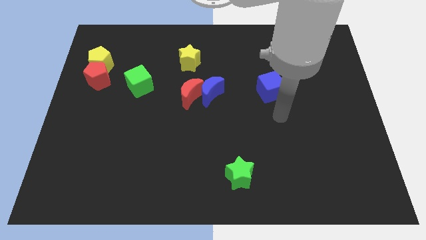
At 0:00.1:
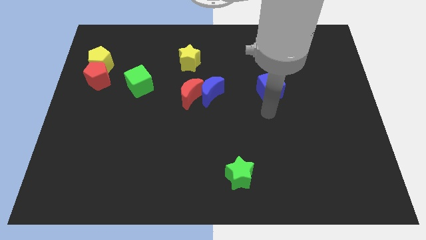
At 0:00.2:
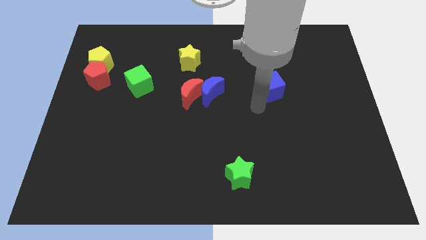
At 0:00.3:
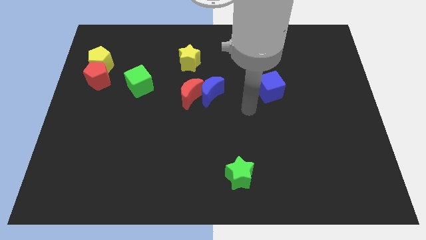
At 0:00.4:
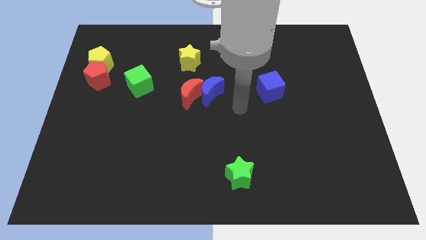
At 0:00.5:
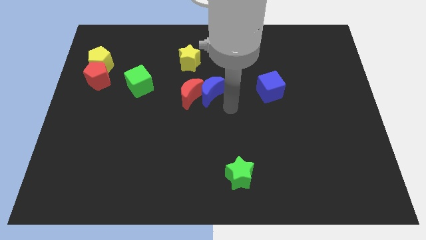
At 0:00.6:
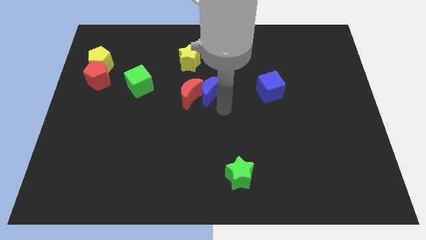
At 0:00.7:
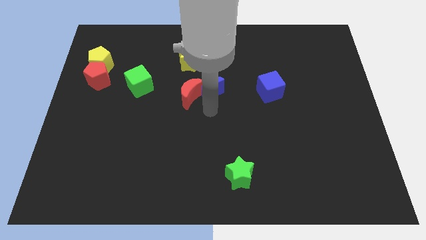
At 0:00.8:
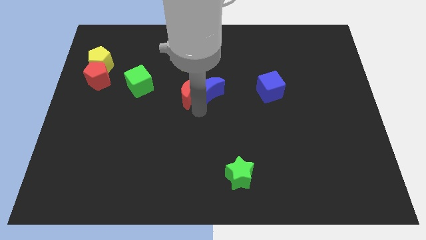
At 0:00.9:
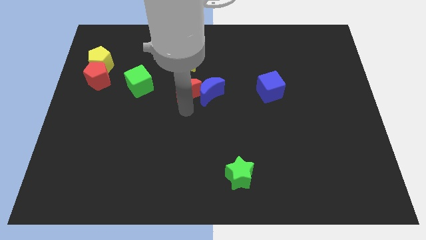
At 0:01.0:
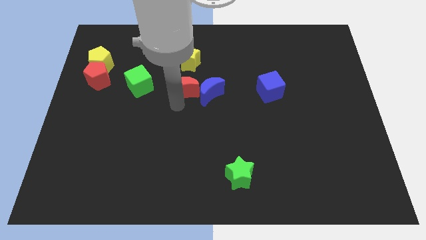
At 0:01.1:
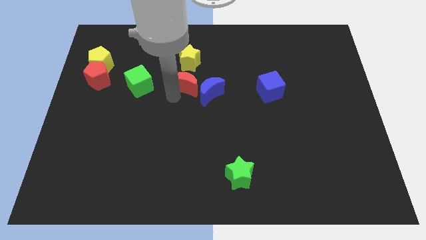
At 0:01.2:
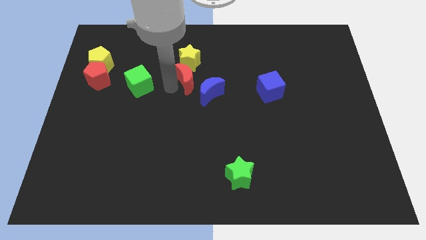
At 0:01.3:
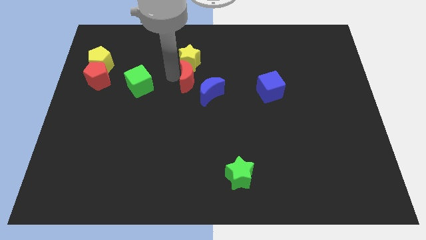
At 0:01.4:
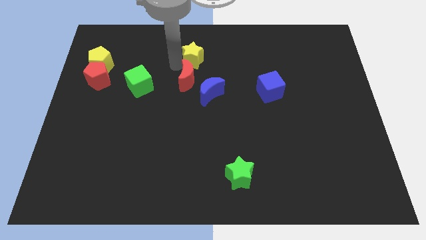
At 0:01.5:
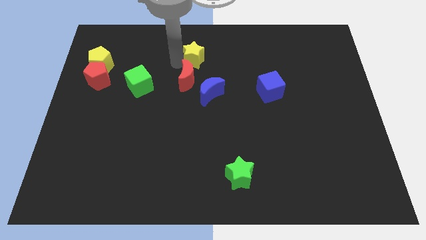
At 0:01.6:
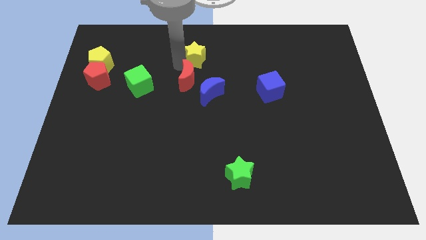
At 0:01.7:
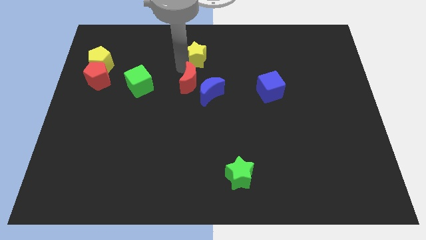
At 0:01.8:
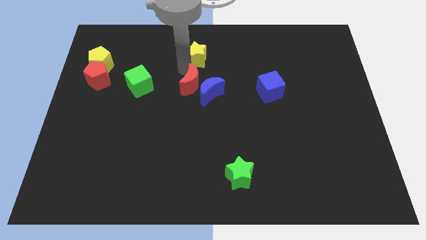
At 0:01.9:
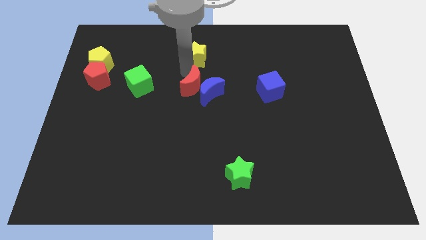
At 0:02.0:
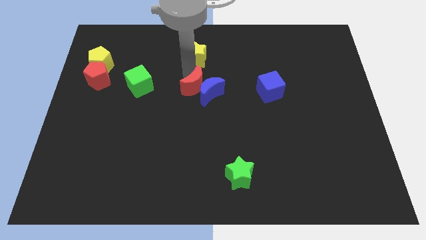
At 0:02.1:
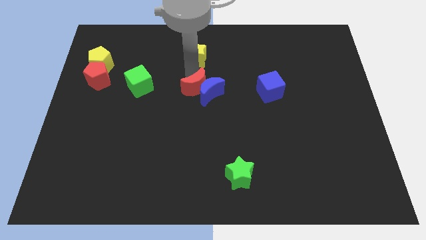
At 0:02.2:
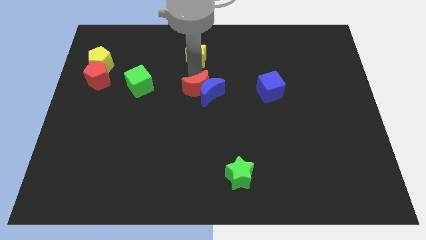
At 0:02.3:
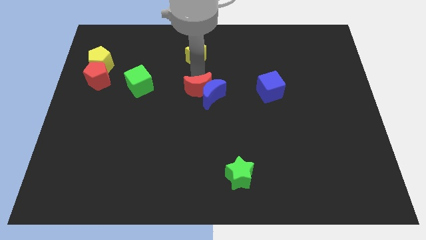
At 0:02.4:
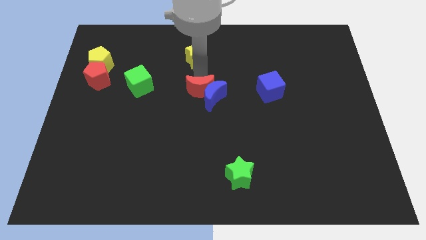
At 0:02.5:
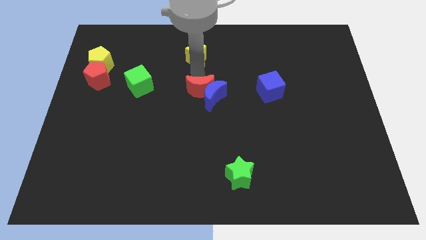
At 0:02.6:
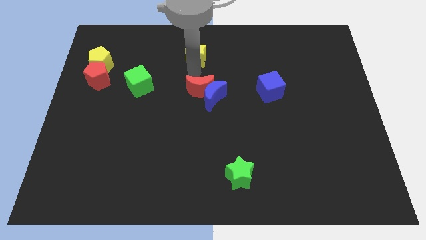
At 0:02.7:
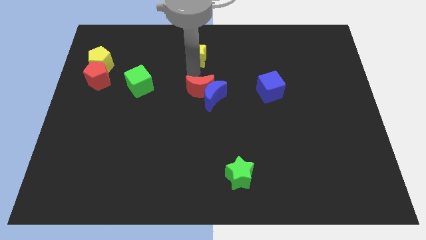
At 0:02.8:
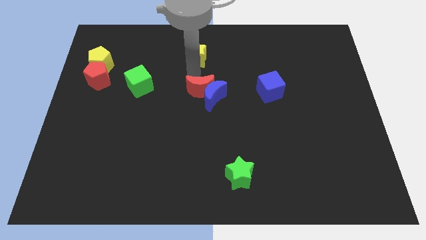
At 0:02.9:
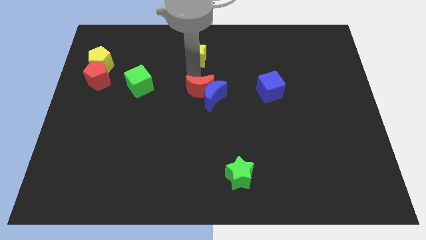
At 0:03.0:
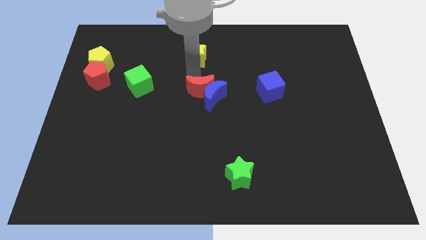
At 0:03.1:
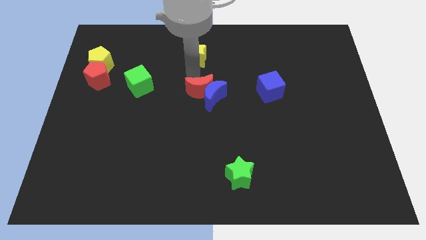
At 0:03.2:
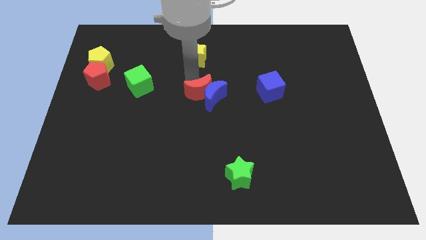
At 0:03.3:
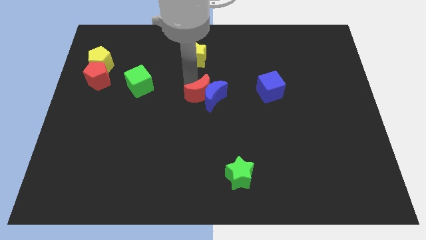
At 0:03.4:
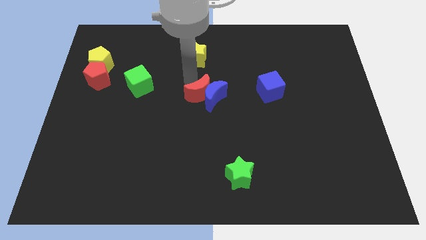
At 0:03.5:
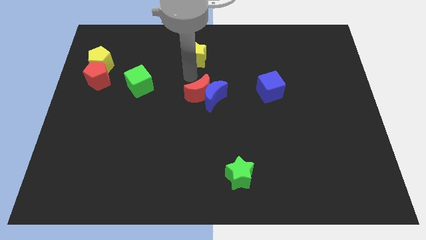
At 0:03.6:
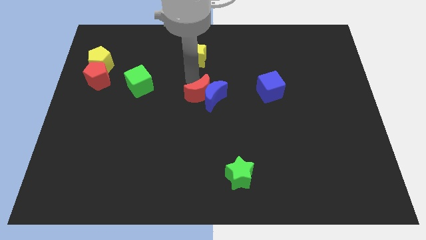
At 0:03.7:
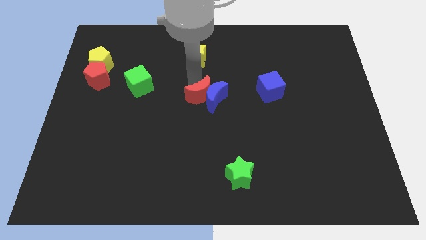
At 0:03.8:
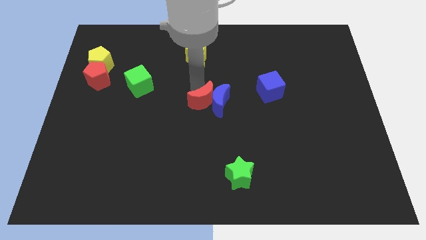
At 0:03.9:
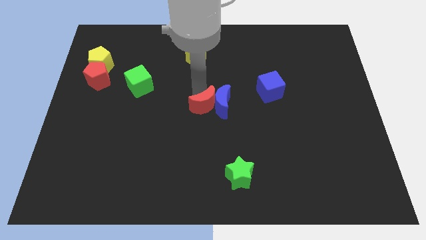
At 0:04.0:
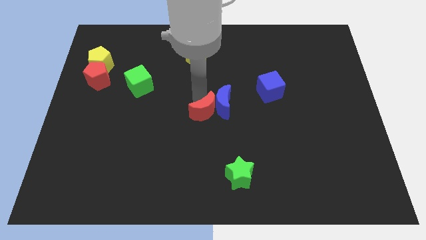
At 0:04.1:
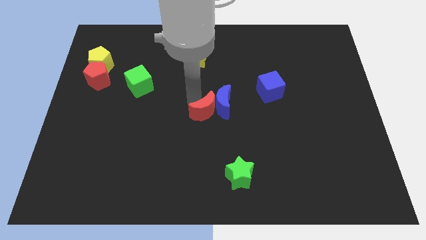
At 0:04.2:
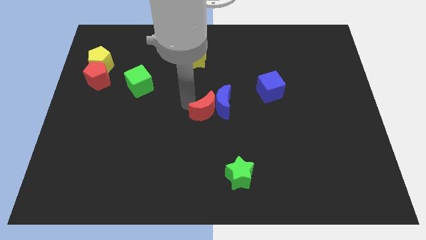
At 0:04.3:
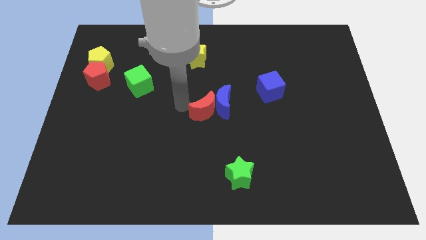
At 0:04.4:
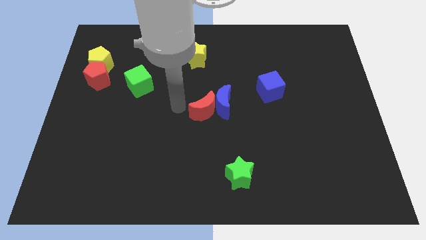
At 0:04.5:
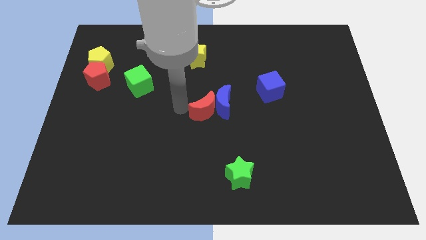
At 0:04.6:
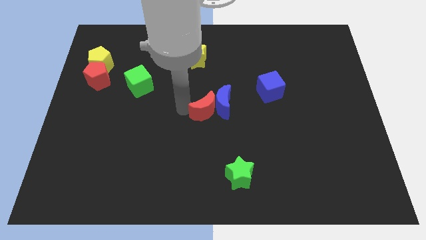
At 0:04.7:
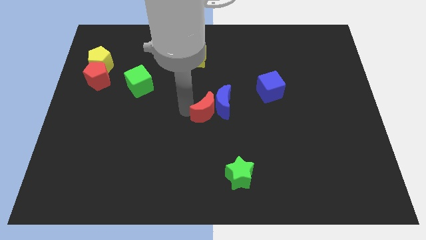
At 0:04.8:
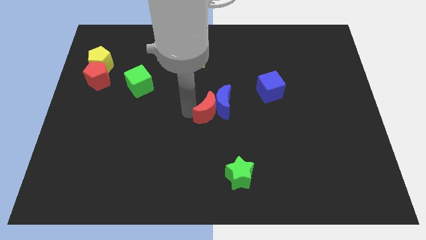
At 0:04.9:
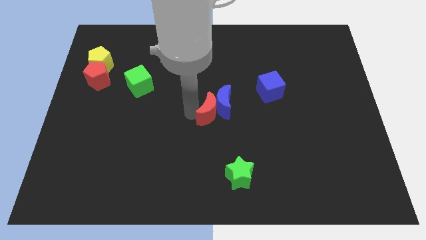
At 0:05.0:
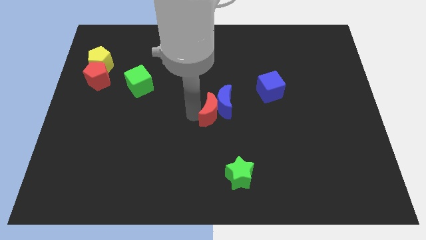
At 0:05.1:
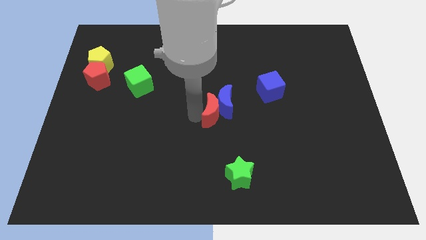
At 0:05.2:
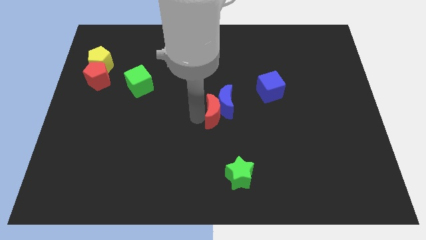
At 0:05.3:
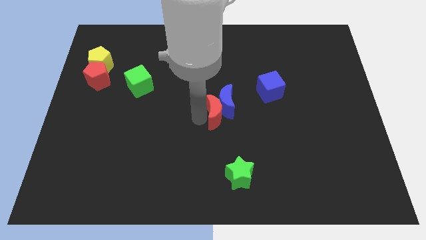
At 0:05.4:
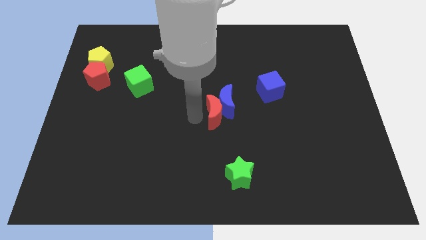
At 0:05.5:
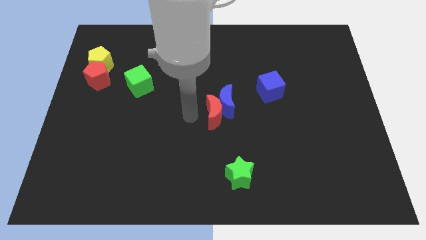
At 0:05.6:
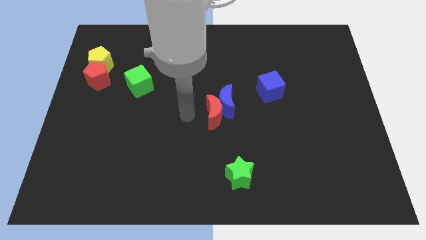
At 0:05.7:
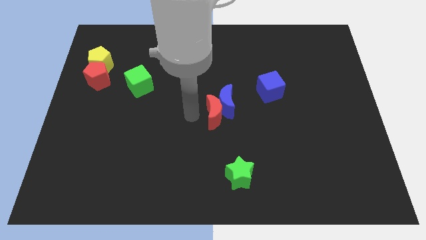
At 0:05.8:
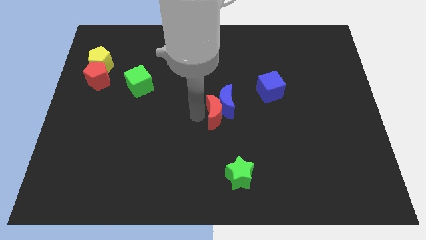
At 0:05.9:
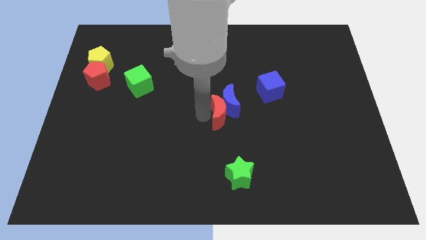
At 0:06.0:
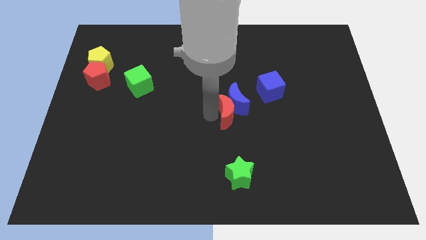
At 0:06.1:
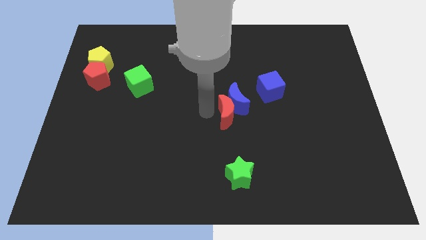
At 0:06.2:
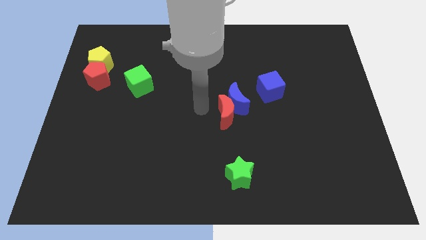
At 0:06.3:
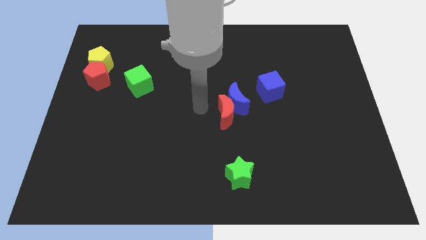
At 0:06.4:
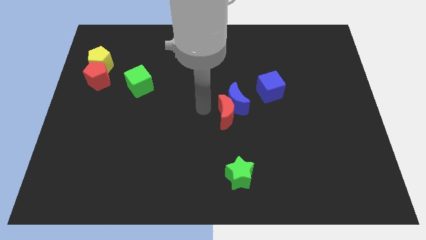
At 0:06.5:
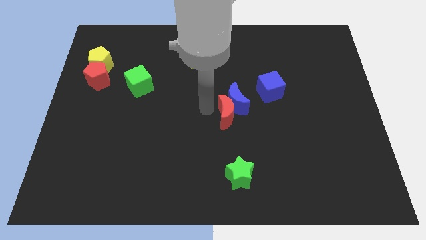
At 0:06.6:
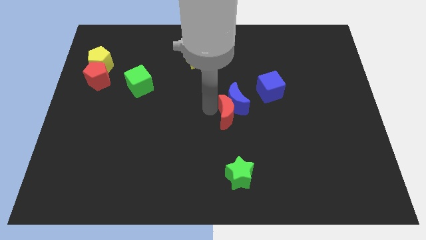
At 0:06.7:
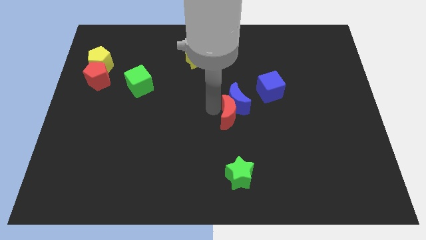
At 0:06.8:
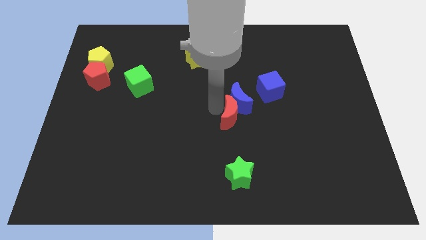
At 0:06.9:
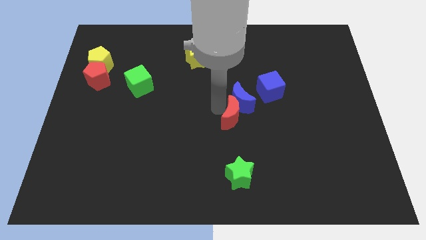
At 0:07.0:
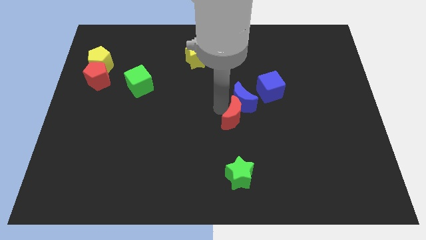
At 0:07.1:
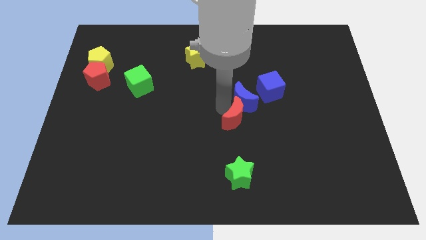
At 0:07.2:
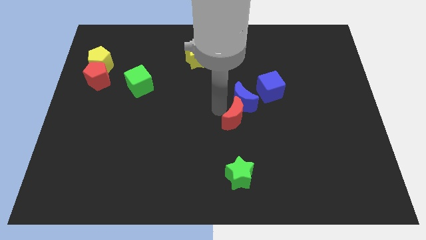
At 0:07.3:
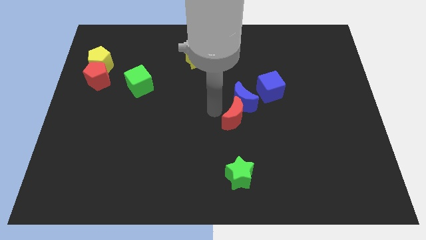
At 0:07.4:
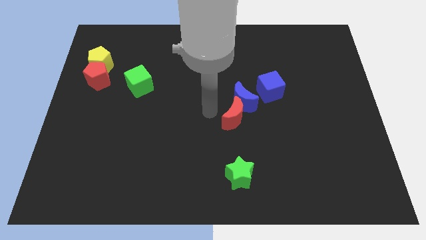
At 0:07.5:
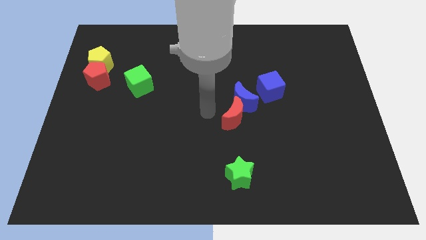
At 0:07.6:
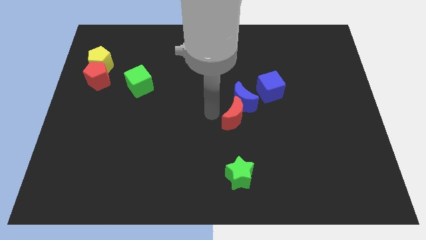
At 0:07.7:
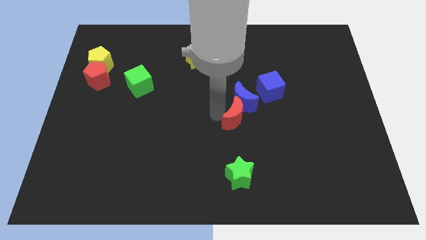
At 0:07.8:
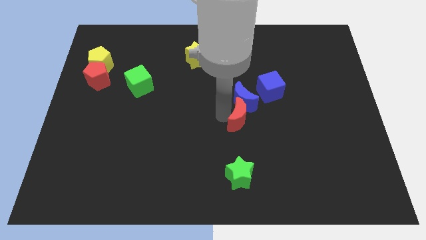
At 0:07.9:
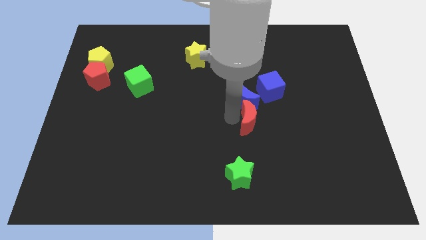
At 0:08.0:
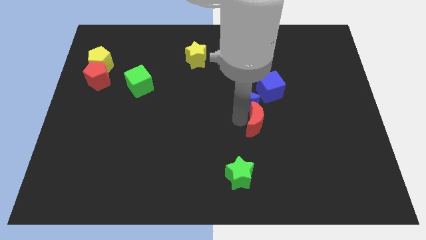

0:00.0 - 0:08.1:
push the red moon below the blue cube
